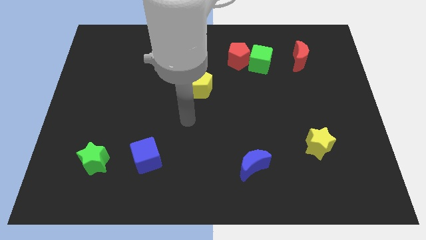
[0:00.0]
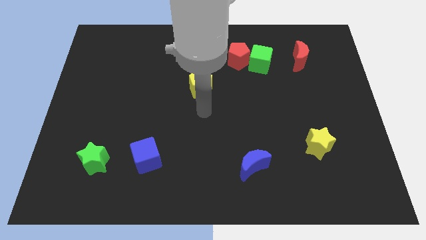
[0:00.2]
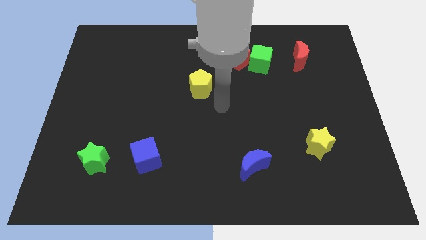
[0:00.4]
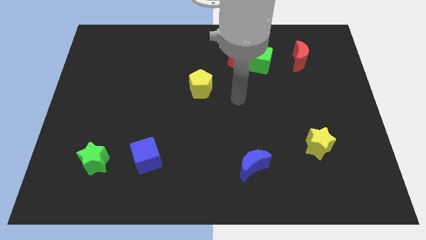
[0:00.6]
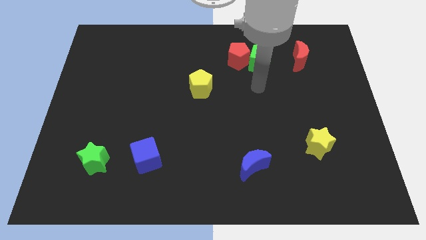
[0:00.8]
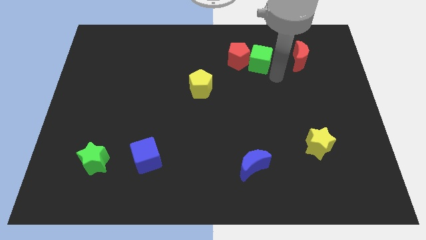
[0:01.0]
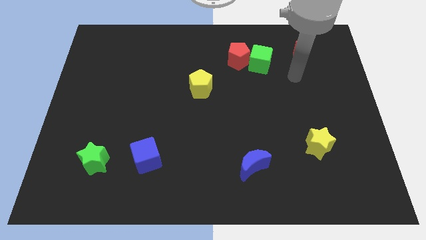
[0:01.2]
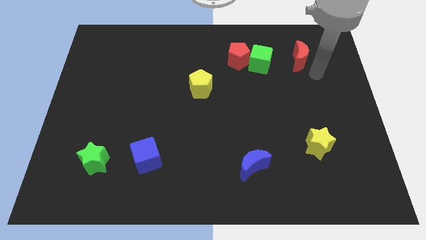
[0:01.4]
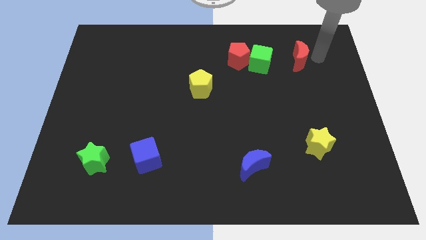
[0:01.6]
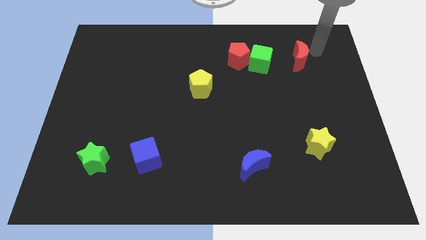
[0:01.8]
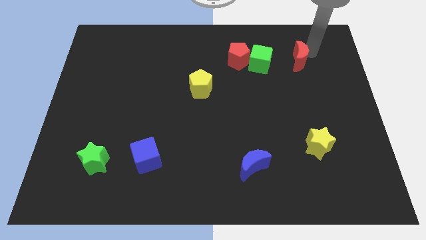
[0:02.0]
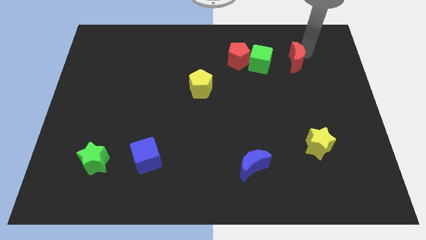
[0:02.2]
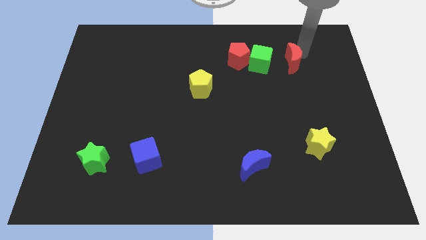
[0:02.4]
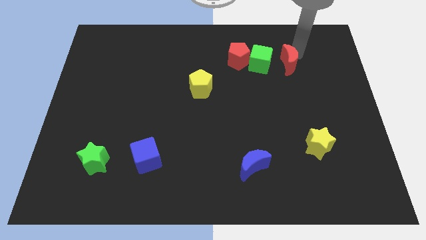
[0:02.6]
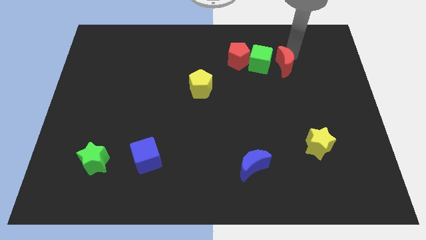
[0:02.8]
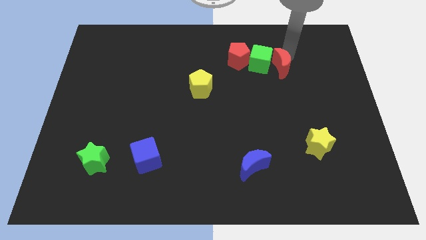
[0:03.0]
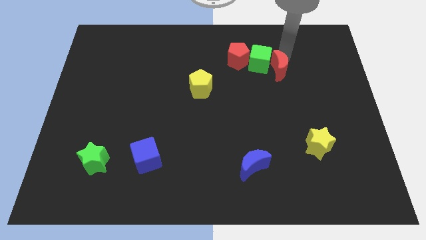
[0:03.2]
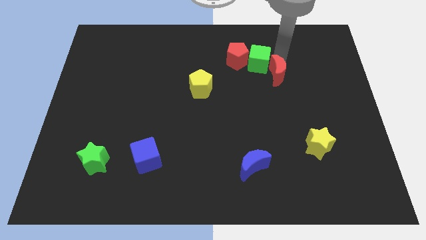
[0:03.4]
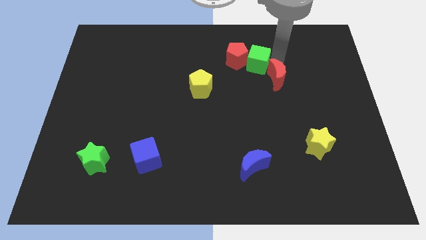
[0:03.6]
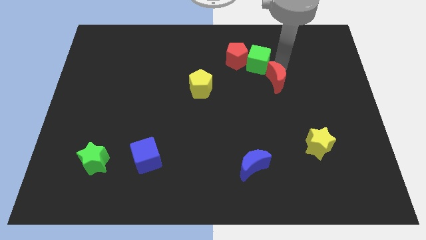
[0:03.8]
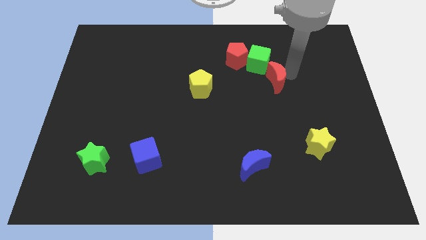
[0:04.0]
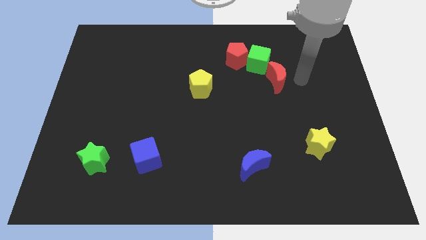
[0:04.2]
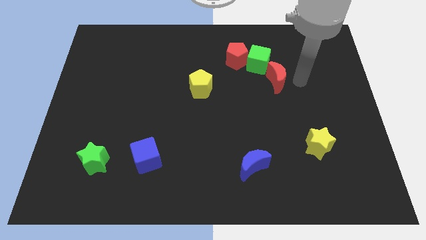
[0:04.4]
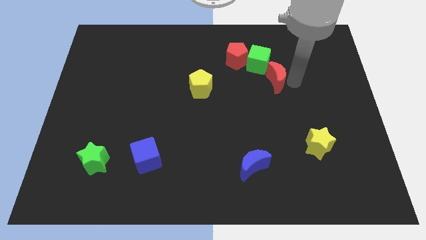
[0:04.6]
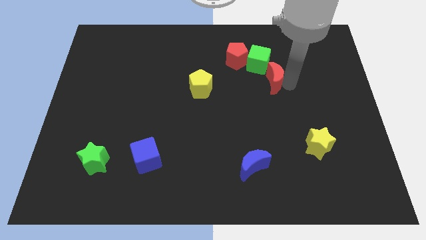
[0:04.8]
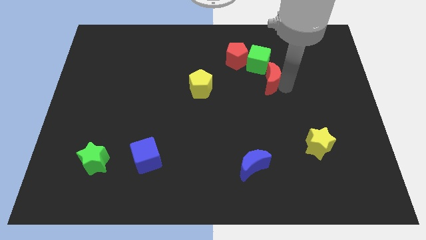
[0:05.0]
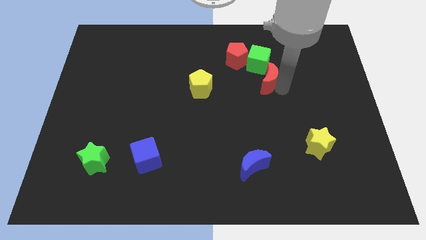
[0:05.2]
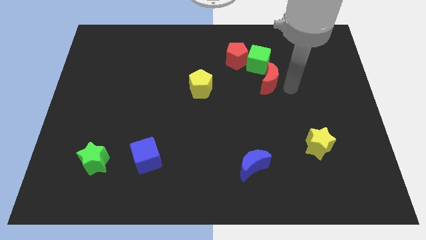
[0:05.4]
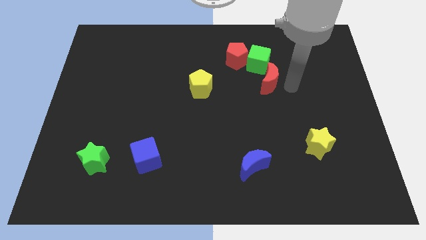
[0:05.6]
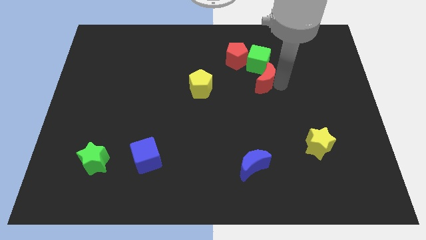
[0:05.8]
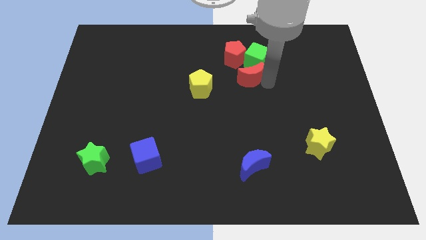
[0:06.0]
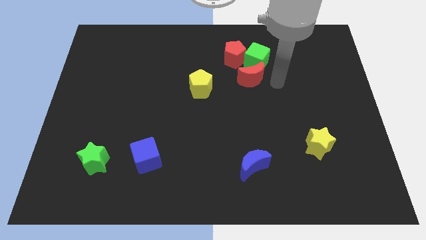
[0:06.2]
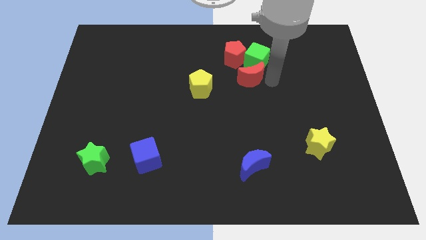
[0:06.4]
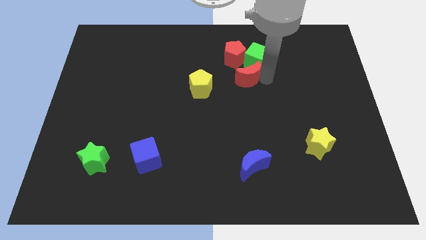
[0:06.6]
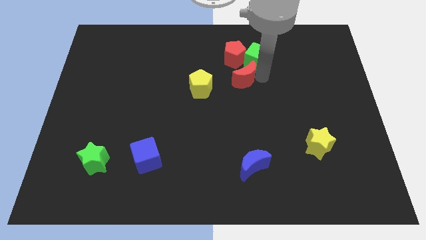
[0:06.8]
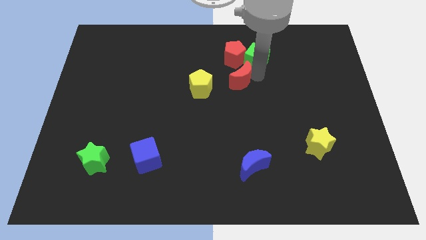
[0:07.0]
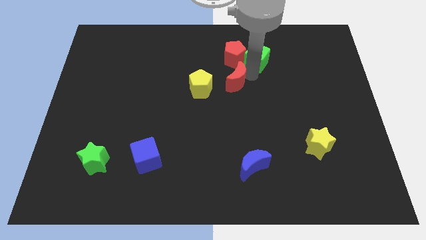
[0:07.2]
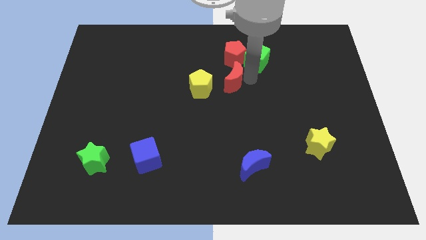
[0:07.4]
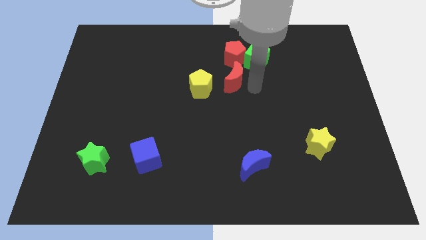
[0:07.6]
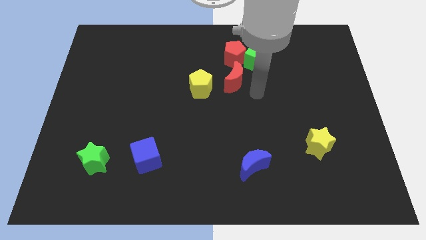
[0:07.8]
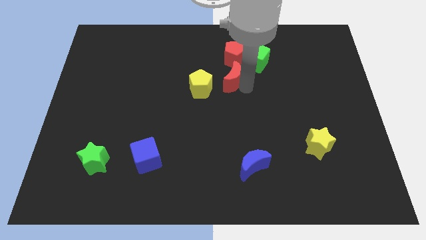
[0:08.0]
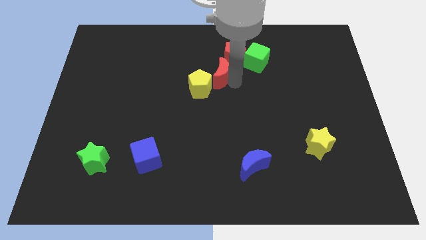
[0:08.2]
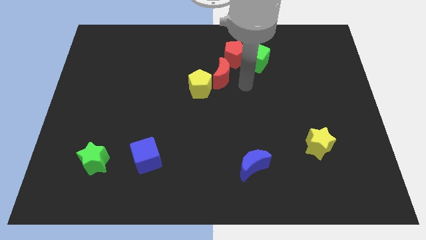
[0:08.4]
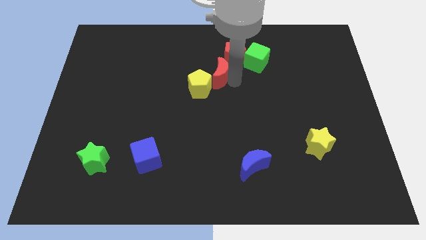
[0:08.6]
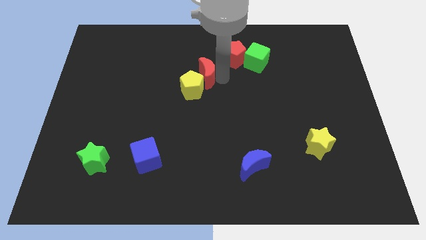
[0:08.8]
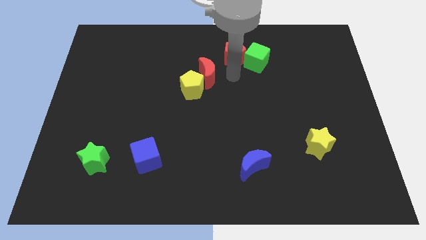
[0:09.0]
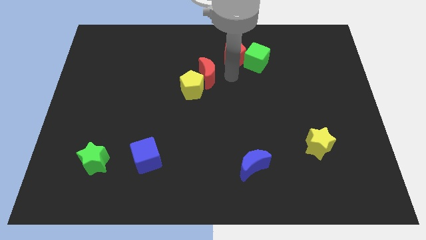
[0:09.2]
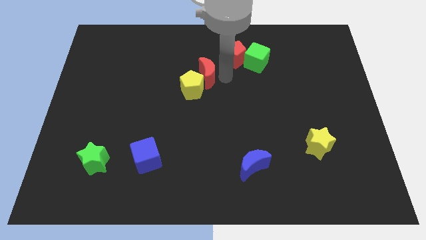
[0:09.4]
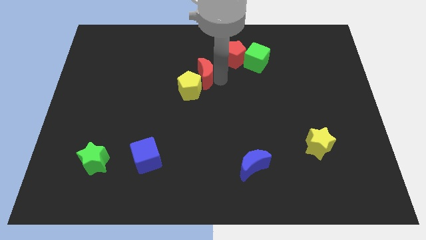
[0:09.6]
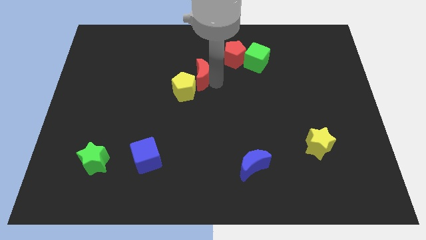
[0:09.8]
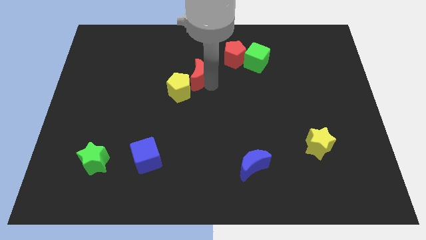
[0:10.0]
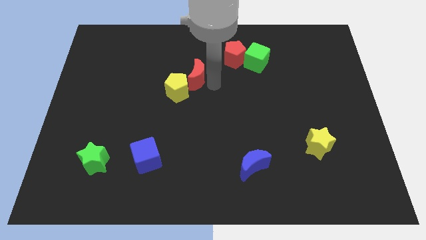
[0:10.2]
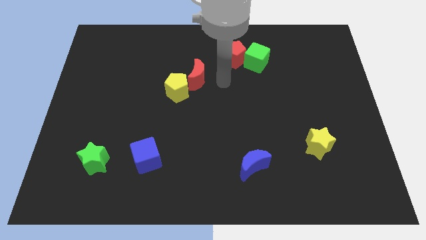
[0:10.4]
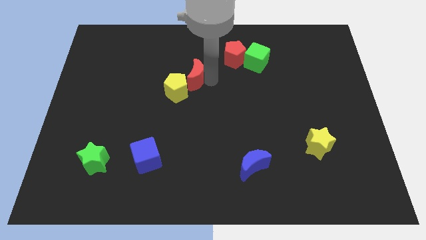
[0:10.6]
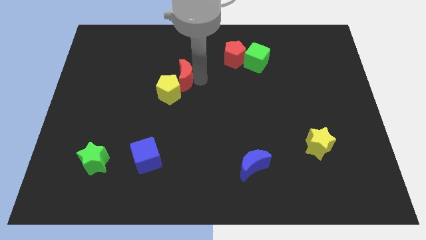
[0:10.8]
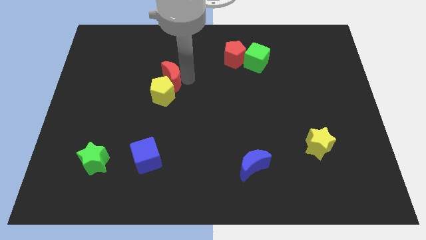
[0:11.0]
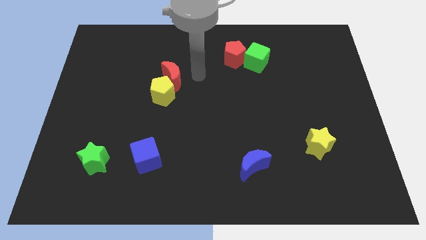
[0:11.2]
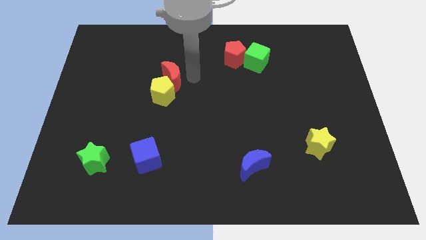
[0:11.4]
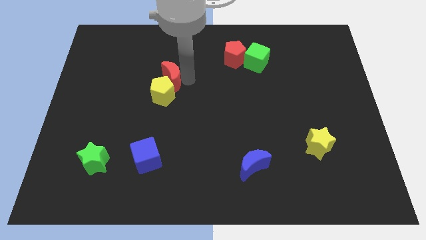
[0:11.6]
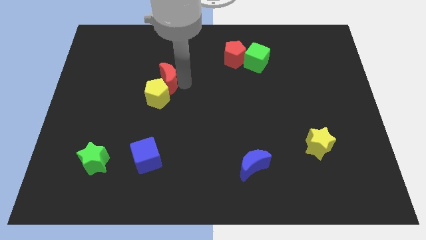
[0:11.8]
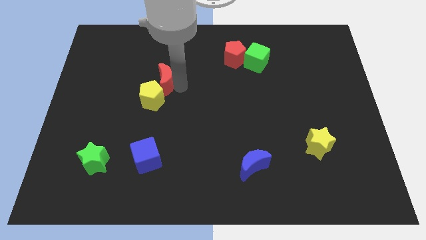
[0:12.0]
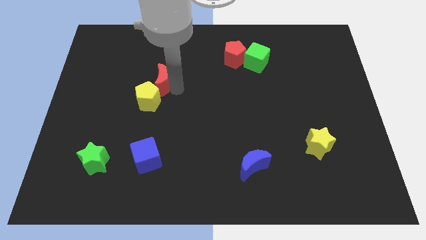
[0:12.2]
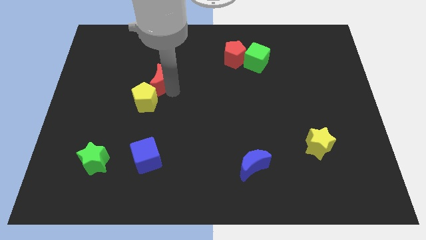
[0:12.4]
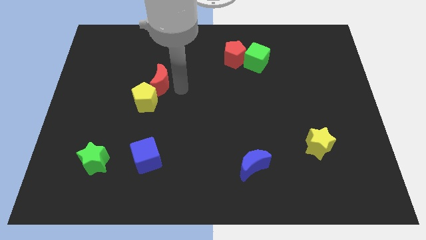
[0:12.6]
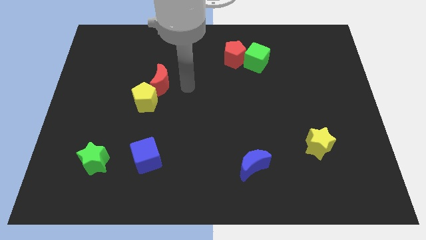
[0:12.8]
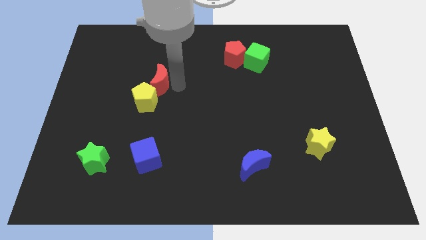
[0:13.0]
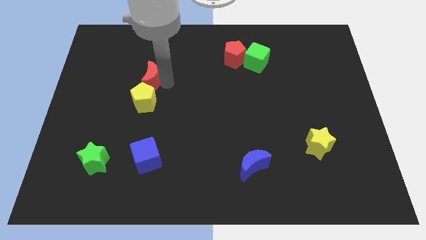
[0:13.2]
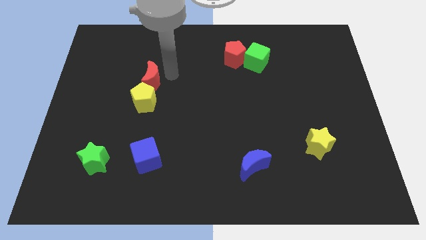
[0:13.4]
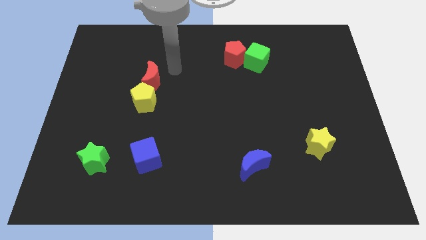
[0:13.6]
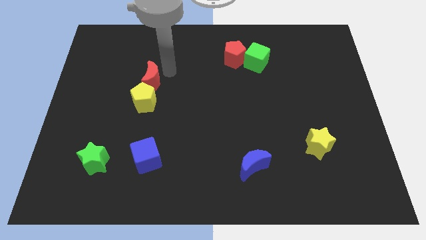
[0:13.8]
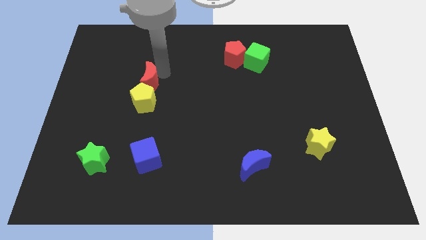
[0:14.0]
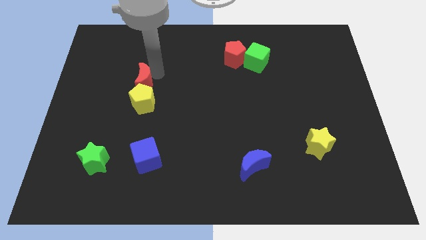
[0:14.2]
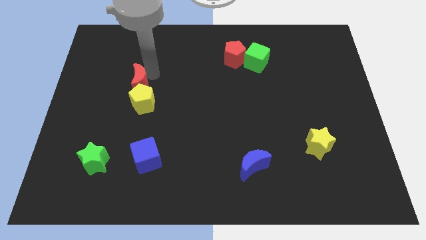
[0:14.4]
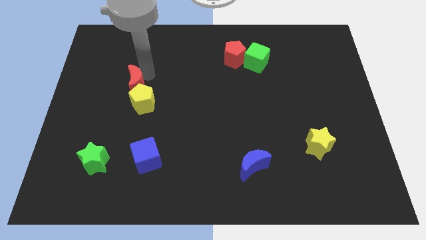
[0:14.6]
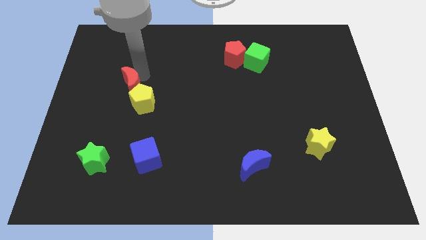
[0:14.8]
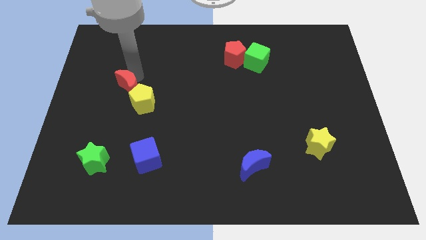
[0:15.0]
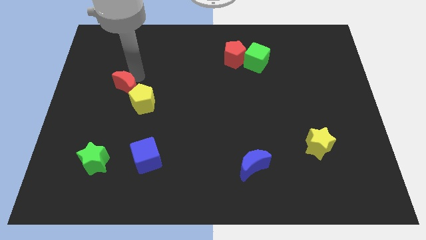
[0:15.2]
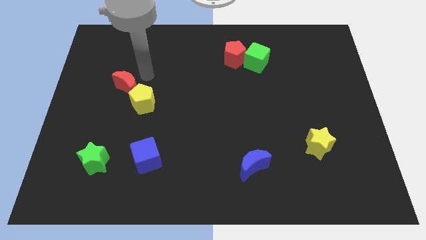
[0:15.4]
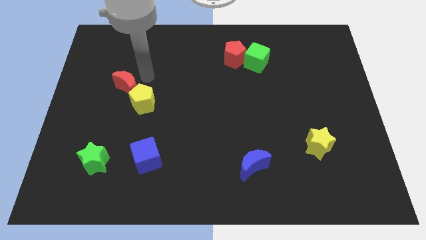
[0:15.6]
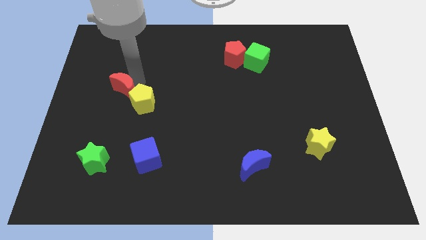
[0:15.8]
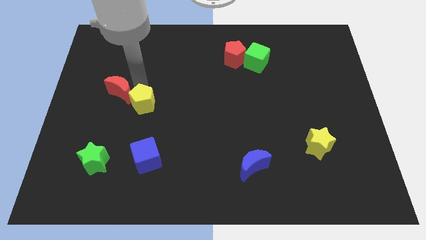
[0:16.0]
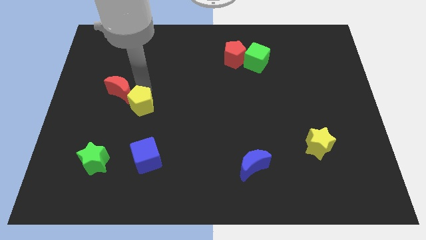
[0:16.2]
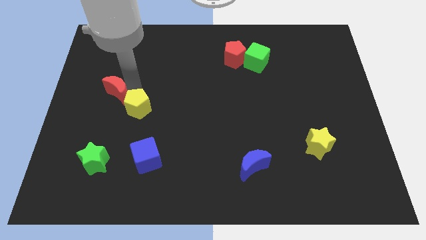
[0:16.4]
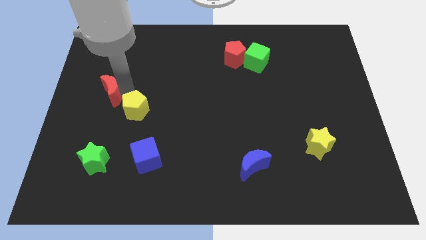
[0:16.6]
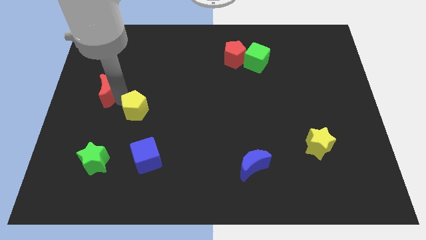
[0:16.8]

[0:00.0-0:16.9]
put the red moon to the left side of the board
